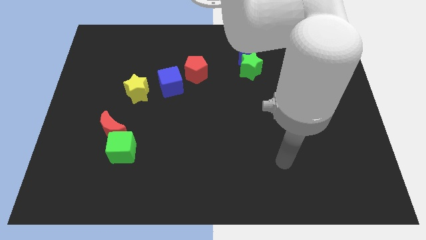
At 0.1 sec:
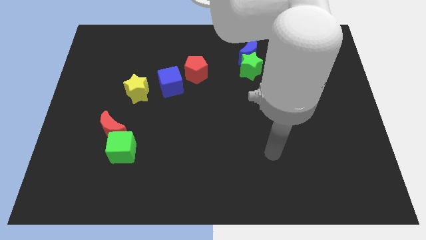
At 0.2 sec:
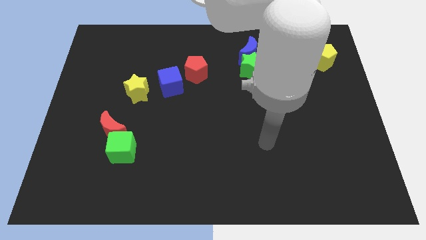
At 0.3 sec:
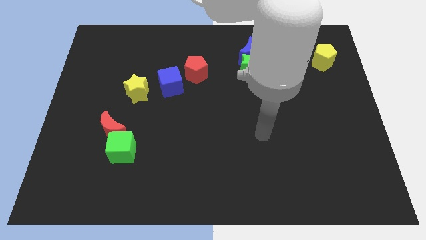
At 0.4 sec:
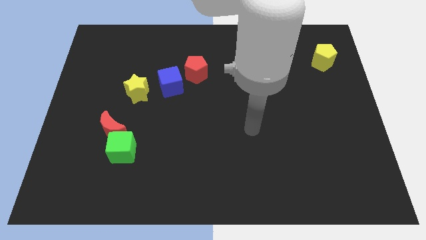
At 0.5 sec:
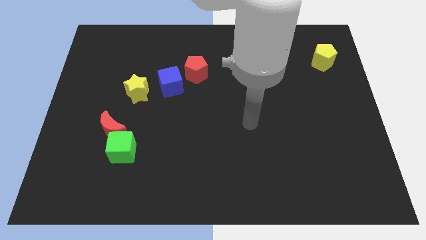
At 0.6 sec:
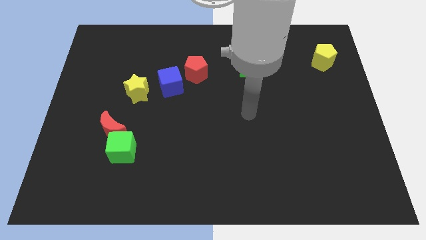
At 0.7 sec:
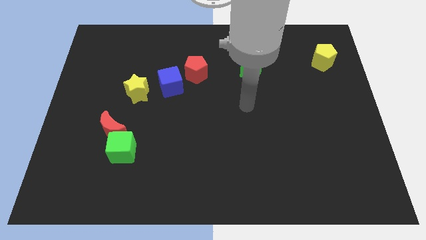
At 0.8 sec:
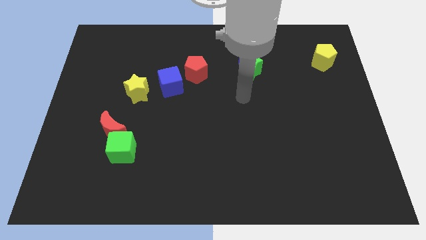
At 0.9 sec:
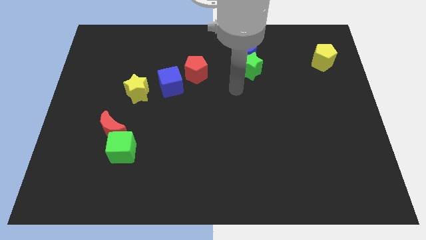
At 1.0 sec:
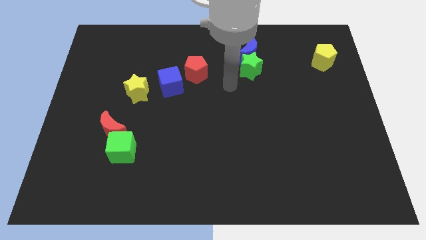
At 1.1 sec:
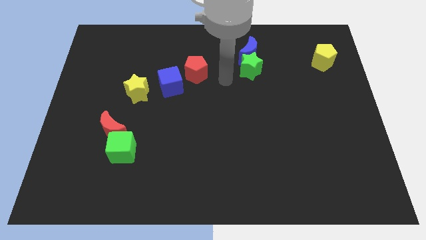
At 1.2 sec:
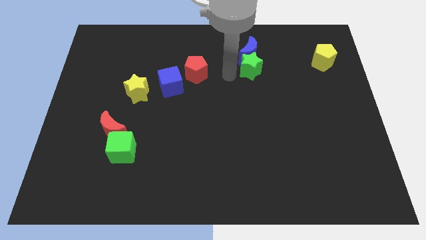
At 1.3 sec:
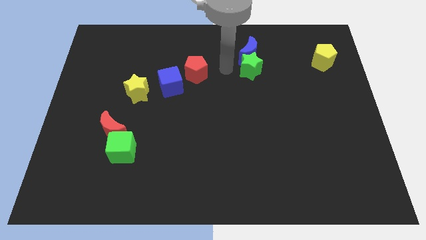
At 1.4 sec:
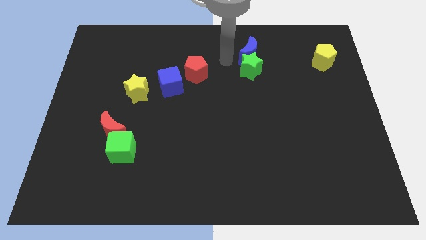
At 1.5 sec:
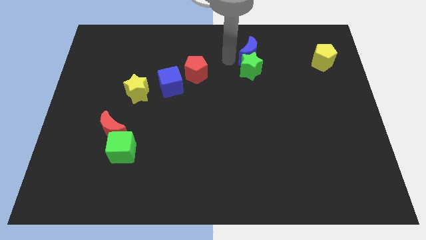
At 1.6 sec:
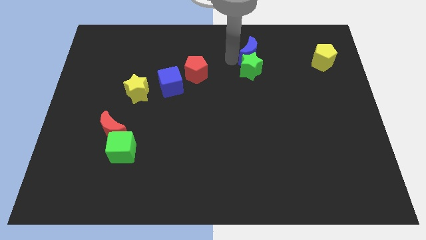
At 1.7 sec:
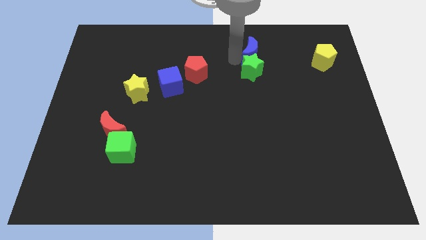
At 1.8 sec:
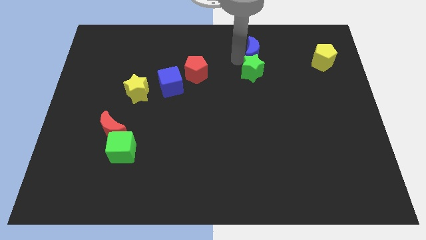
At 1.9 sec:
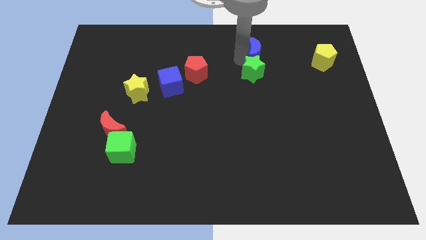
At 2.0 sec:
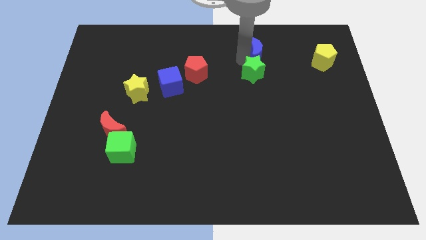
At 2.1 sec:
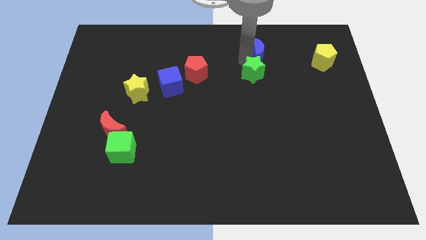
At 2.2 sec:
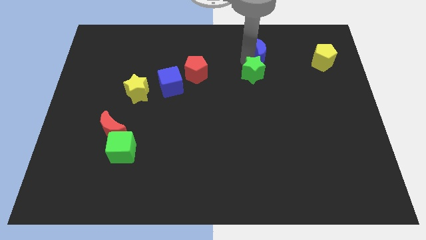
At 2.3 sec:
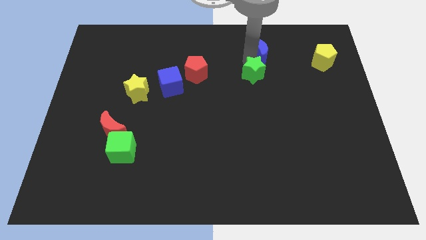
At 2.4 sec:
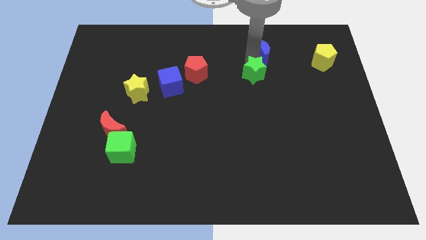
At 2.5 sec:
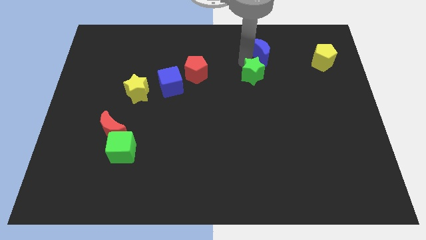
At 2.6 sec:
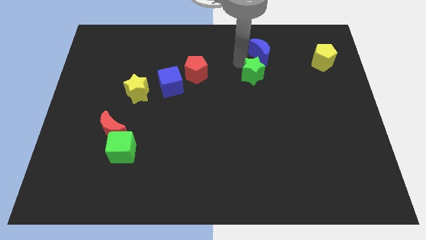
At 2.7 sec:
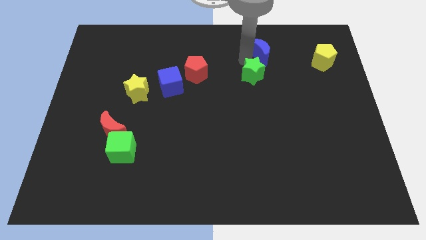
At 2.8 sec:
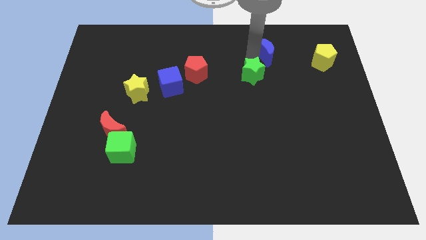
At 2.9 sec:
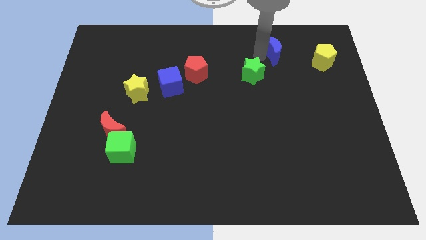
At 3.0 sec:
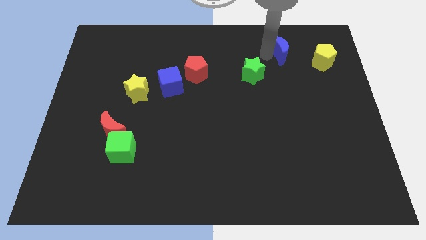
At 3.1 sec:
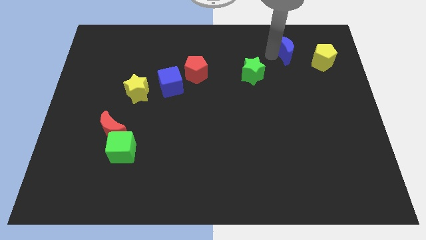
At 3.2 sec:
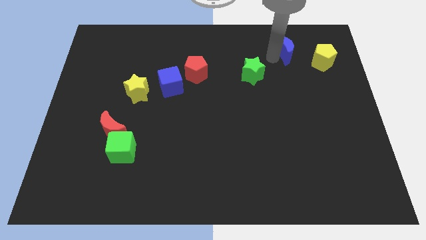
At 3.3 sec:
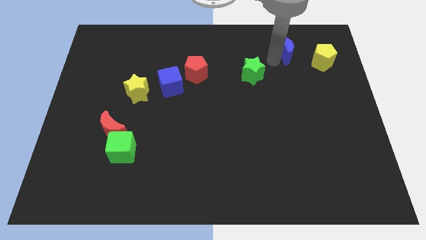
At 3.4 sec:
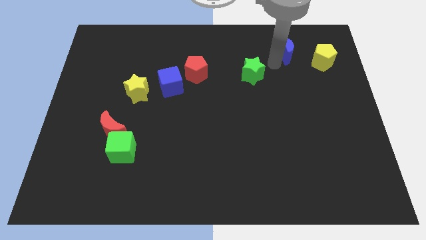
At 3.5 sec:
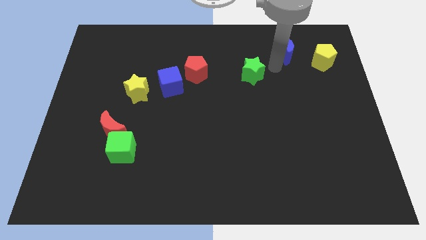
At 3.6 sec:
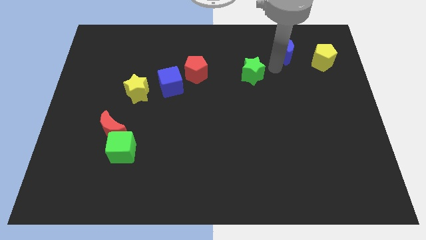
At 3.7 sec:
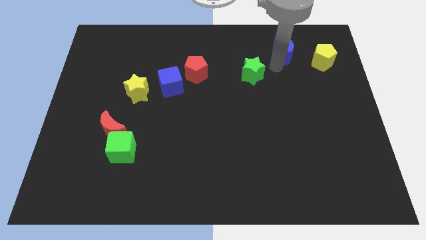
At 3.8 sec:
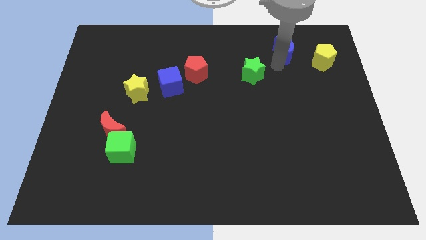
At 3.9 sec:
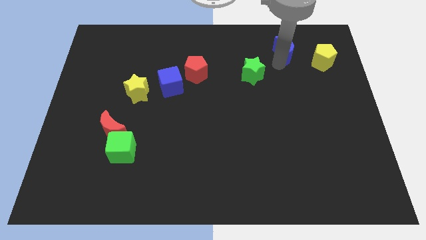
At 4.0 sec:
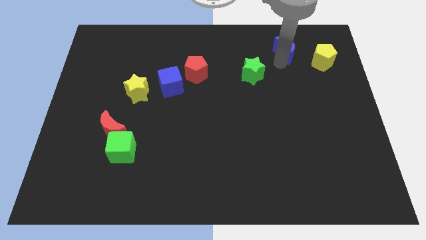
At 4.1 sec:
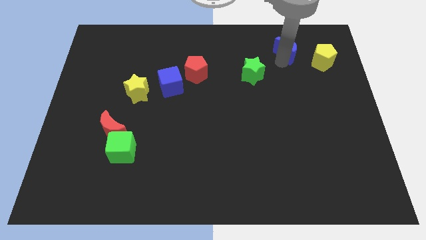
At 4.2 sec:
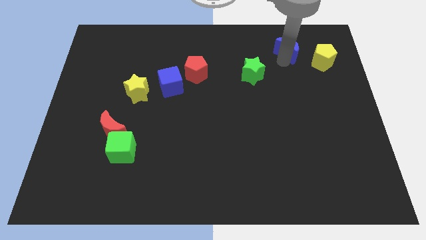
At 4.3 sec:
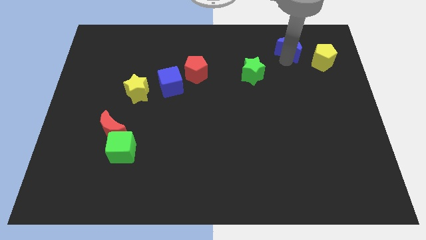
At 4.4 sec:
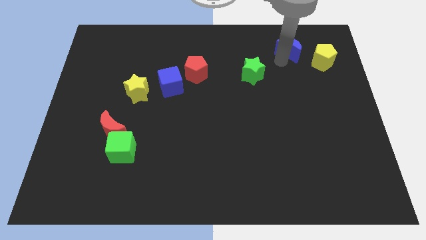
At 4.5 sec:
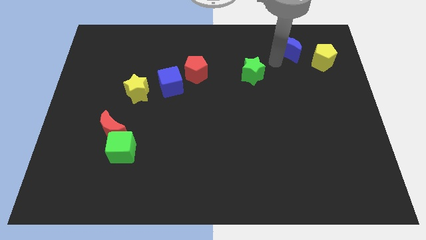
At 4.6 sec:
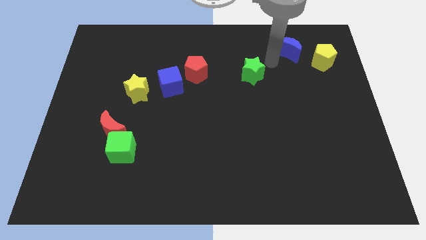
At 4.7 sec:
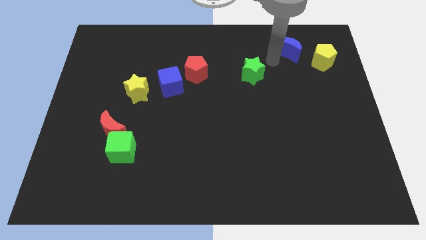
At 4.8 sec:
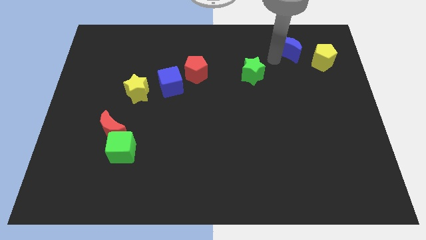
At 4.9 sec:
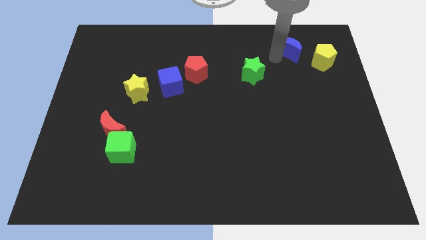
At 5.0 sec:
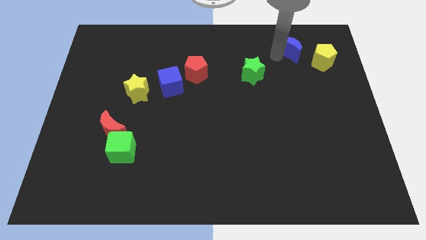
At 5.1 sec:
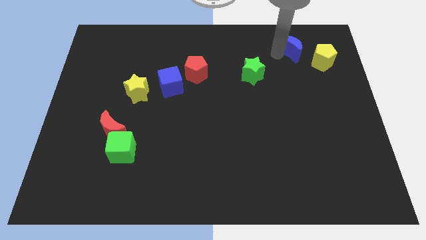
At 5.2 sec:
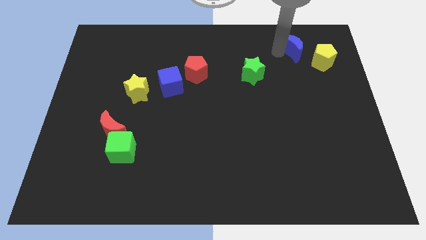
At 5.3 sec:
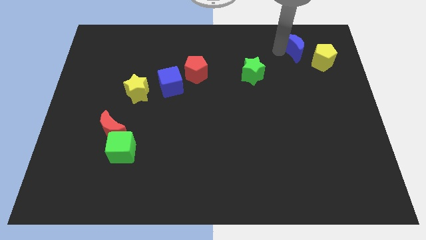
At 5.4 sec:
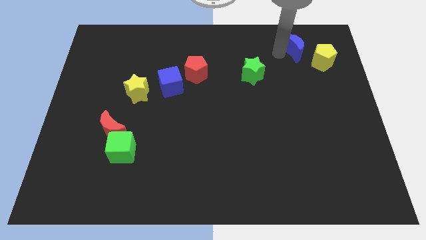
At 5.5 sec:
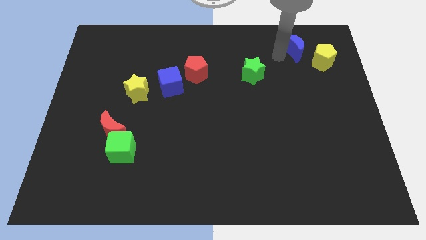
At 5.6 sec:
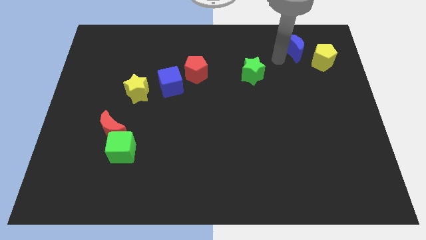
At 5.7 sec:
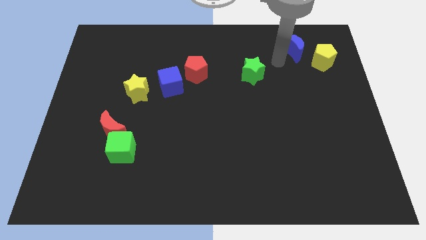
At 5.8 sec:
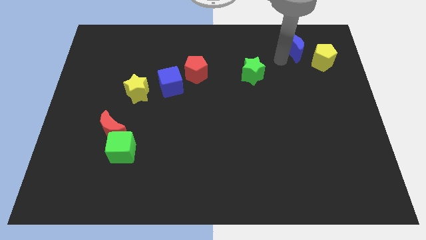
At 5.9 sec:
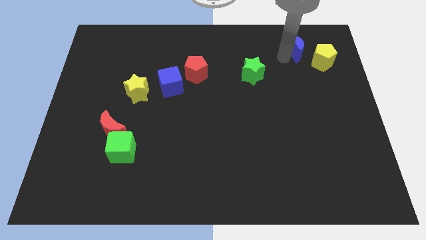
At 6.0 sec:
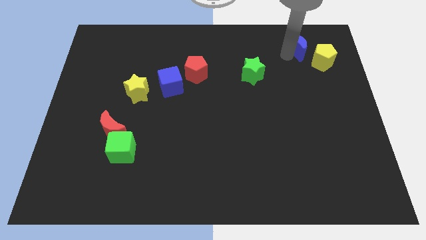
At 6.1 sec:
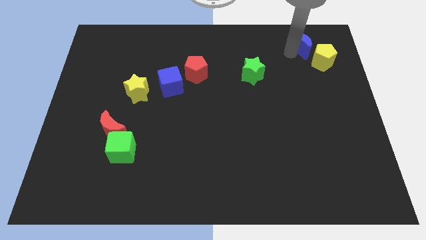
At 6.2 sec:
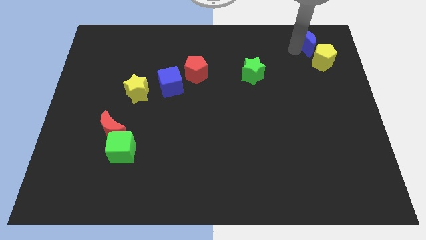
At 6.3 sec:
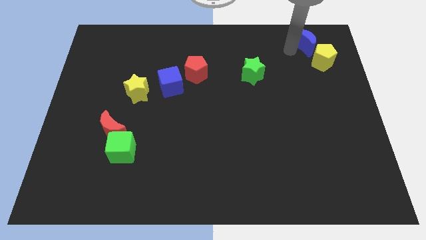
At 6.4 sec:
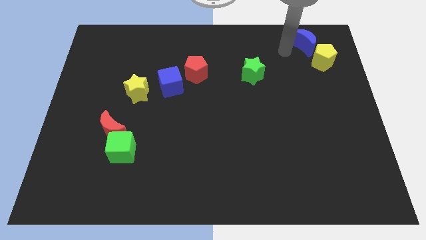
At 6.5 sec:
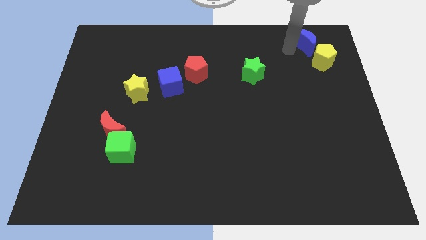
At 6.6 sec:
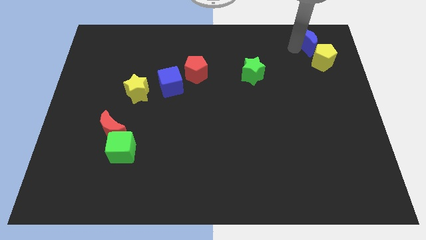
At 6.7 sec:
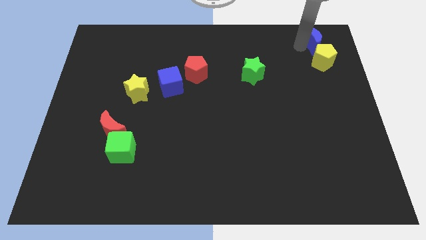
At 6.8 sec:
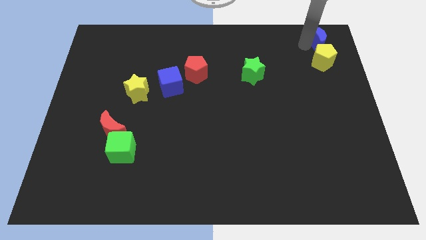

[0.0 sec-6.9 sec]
move the blue moon to the top right corner
